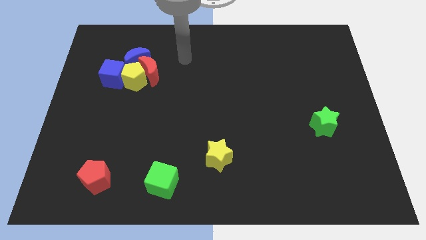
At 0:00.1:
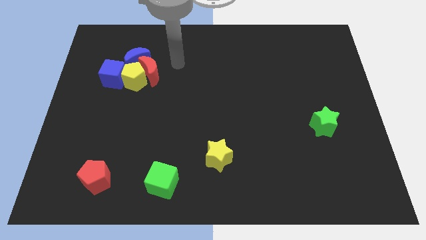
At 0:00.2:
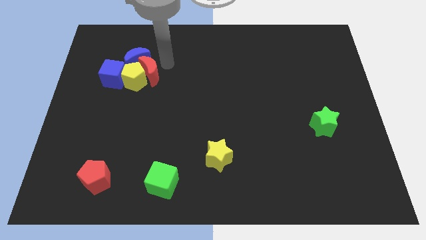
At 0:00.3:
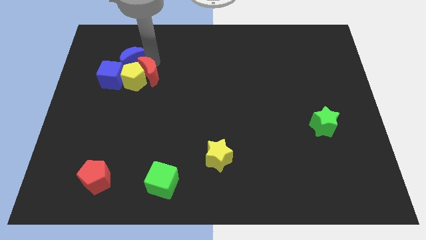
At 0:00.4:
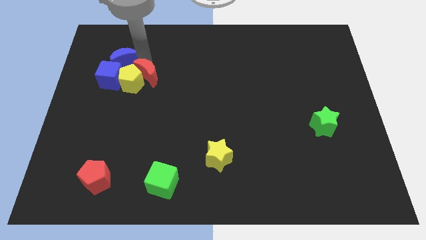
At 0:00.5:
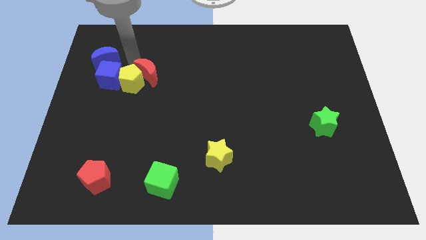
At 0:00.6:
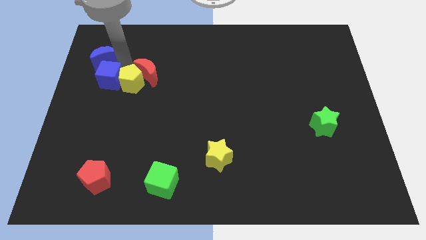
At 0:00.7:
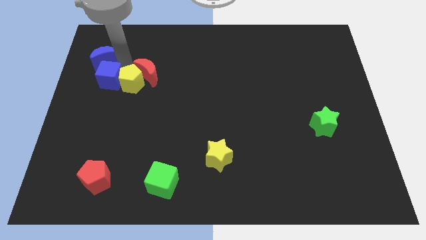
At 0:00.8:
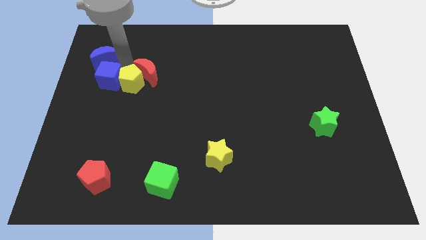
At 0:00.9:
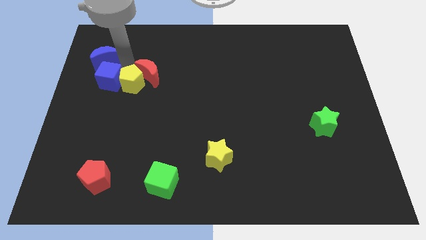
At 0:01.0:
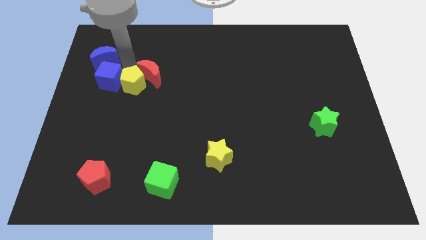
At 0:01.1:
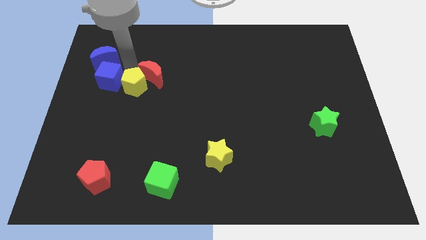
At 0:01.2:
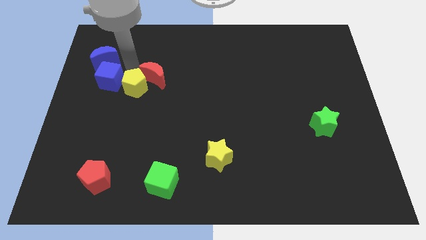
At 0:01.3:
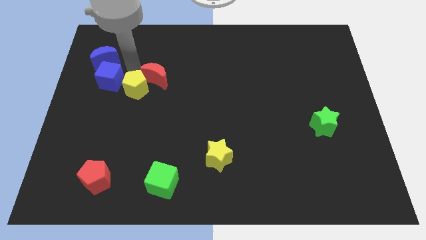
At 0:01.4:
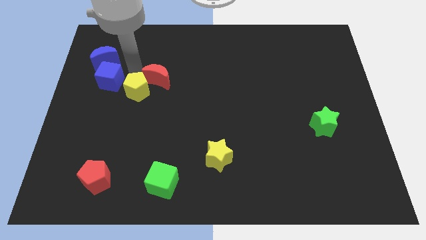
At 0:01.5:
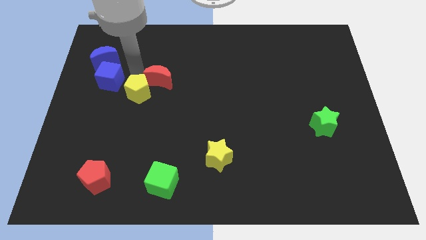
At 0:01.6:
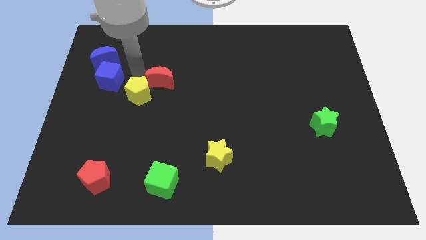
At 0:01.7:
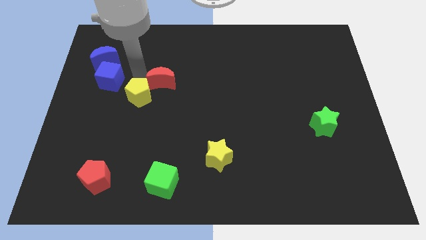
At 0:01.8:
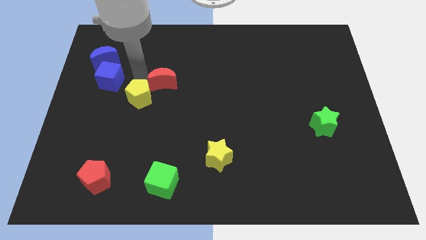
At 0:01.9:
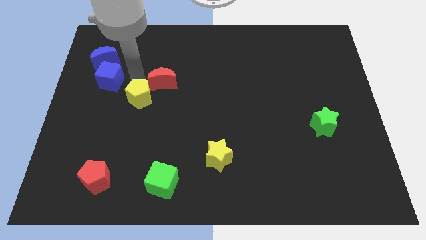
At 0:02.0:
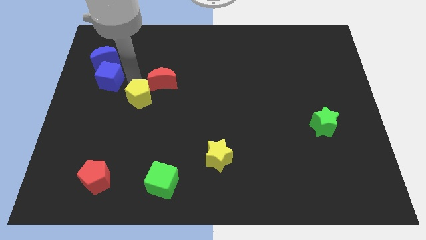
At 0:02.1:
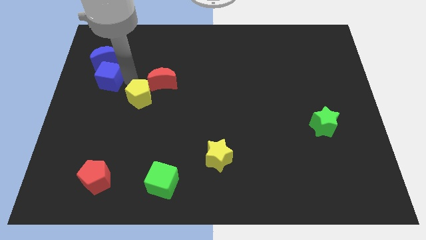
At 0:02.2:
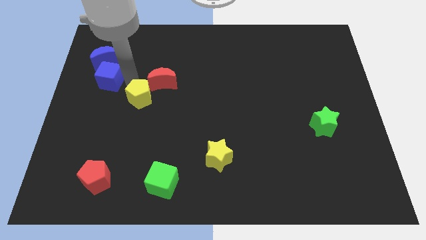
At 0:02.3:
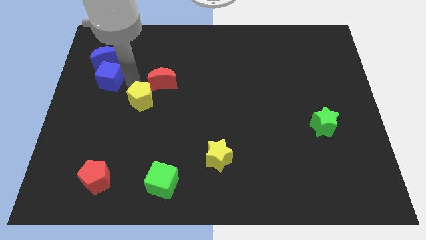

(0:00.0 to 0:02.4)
move the yellow pentagon away from the group of blocks

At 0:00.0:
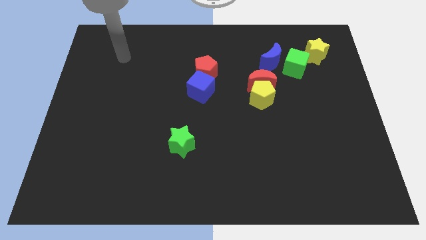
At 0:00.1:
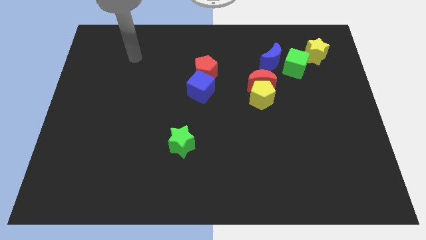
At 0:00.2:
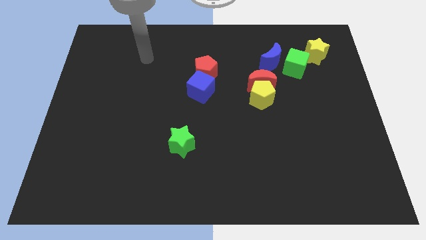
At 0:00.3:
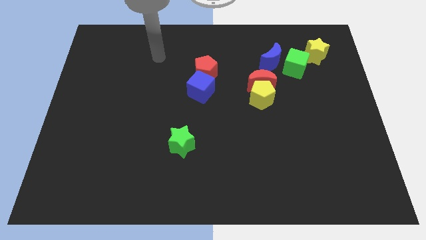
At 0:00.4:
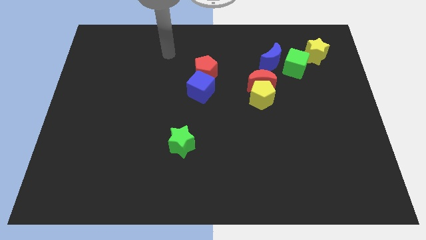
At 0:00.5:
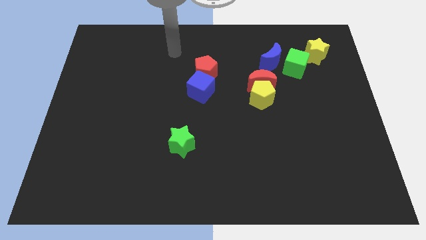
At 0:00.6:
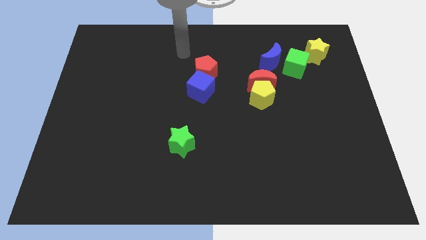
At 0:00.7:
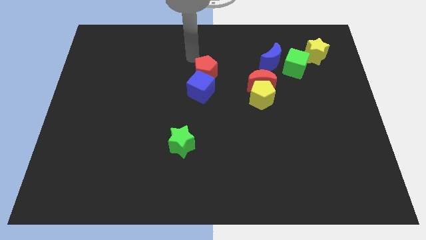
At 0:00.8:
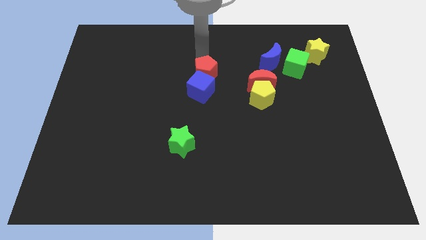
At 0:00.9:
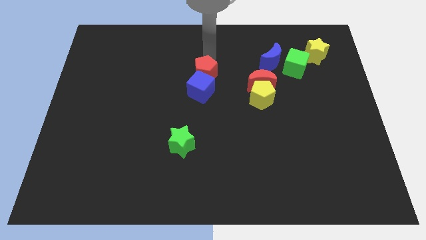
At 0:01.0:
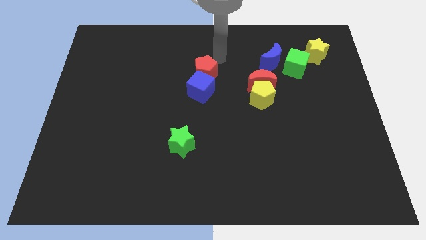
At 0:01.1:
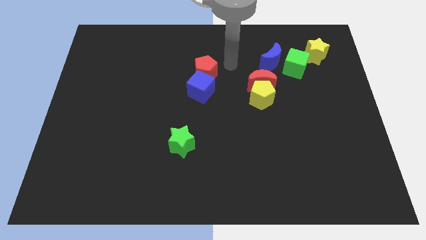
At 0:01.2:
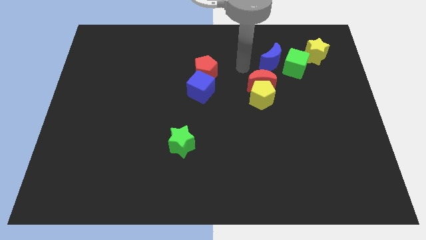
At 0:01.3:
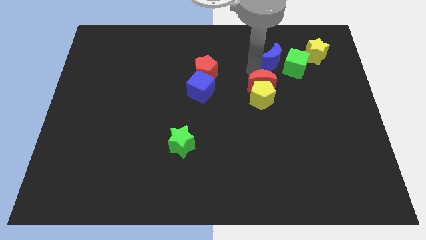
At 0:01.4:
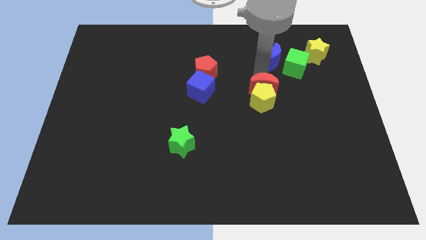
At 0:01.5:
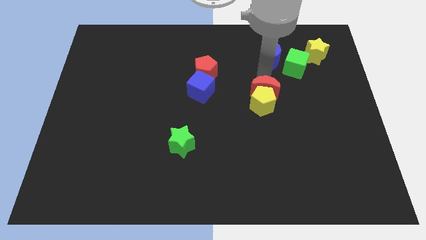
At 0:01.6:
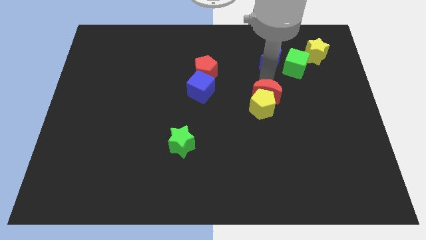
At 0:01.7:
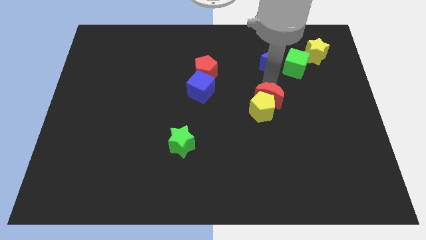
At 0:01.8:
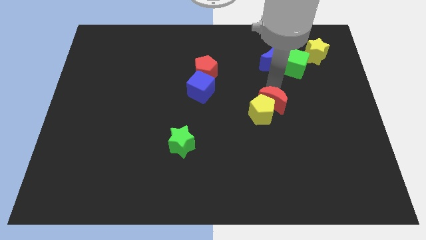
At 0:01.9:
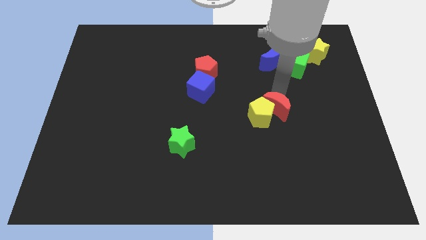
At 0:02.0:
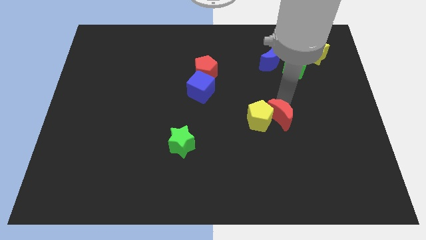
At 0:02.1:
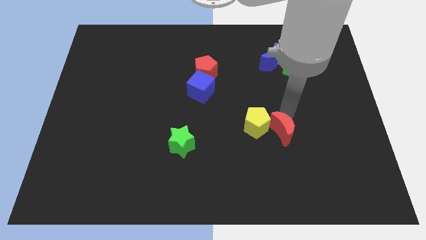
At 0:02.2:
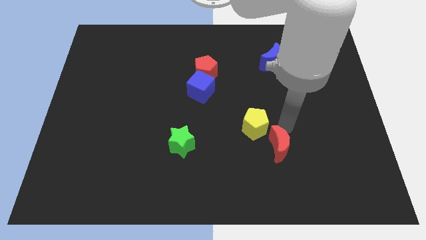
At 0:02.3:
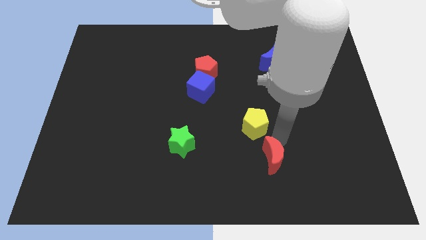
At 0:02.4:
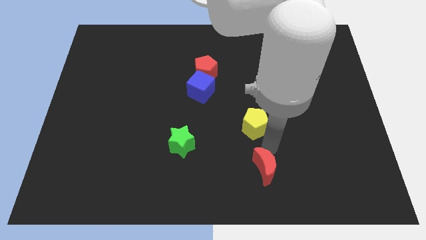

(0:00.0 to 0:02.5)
separate the yellow pentagon from the red moon

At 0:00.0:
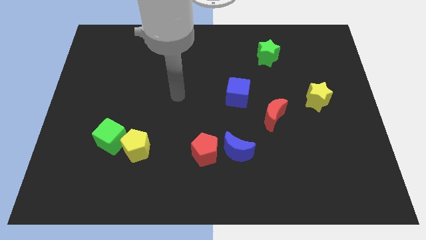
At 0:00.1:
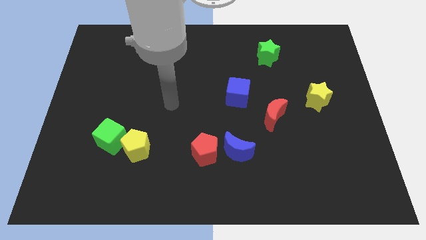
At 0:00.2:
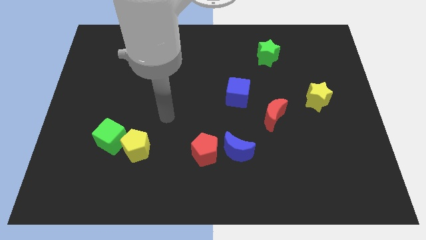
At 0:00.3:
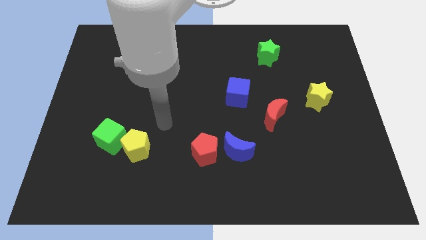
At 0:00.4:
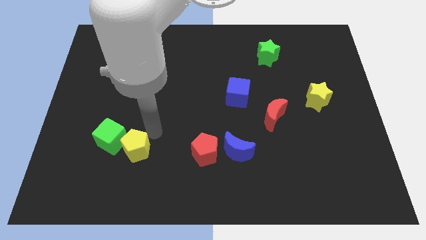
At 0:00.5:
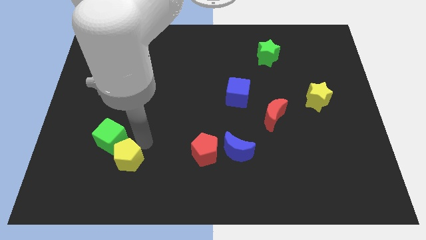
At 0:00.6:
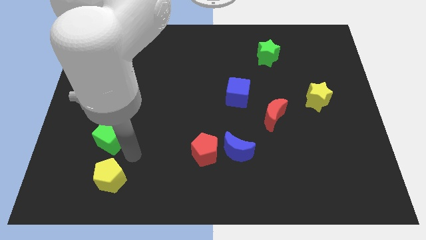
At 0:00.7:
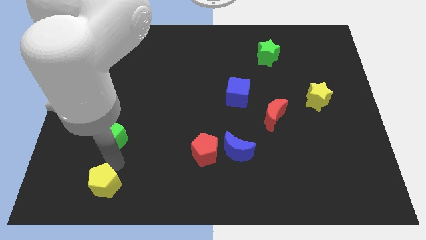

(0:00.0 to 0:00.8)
pull the green cube apart from the yellow pentagon

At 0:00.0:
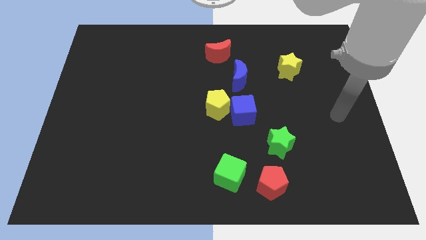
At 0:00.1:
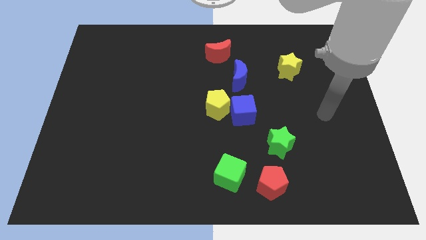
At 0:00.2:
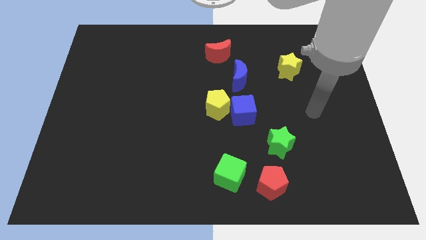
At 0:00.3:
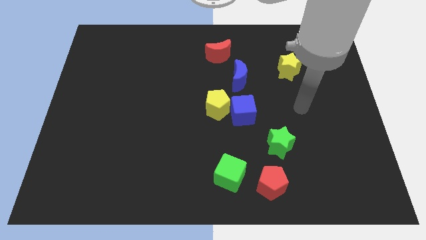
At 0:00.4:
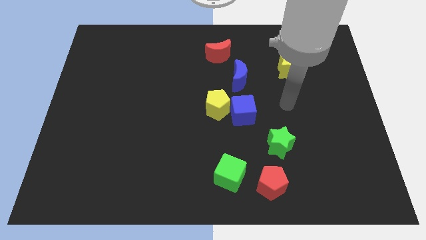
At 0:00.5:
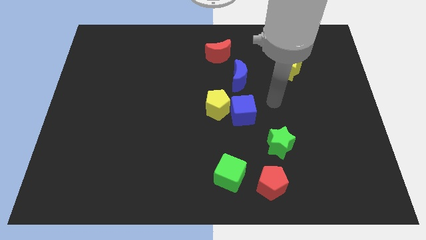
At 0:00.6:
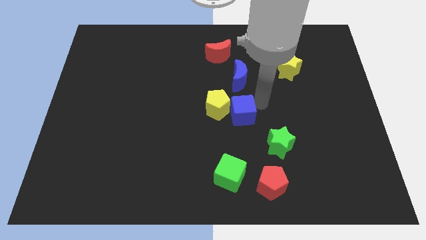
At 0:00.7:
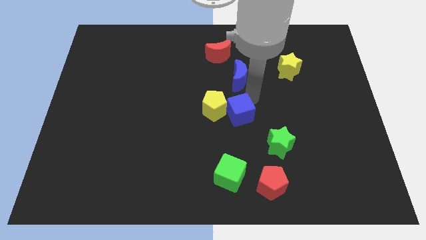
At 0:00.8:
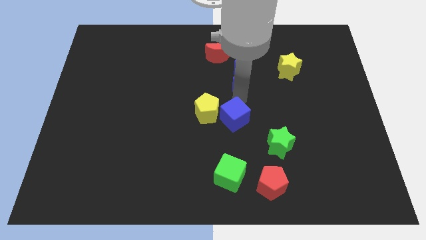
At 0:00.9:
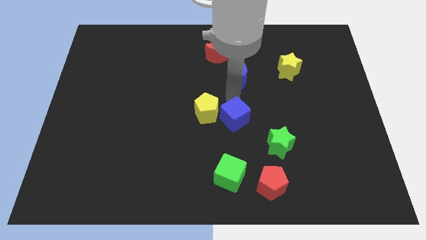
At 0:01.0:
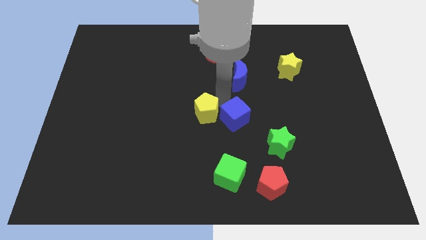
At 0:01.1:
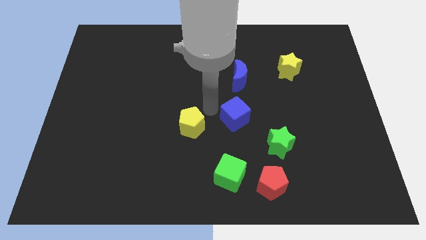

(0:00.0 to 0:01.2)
separate the blue cube from the yellow pentagon

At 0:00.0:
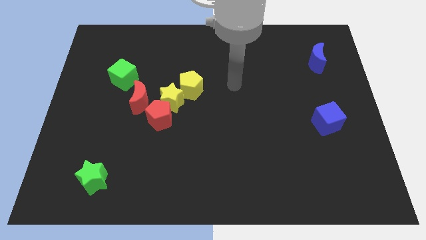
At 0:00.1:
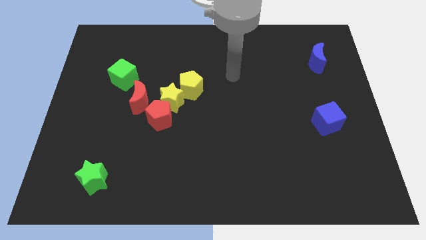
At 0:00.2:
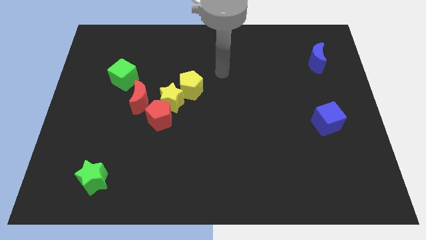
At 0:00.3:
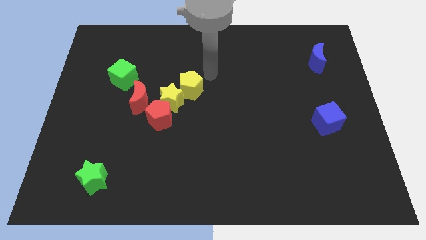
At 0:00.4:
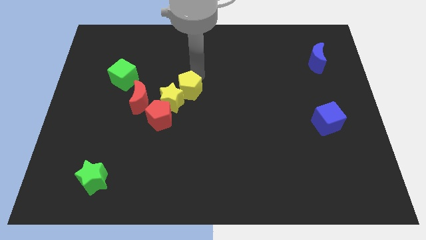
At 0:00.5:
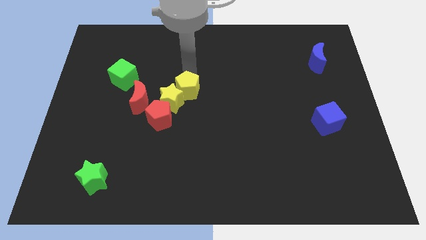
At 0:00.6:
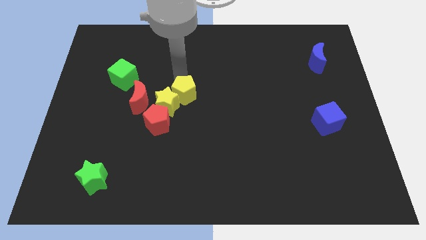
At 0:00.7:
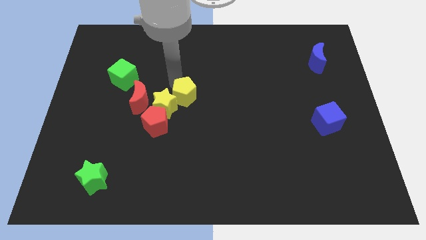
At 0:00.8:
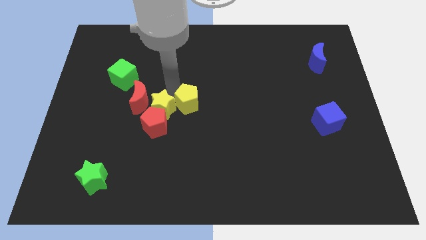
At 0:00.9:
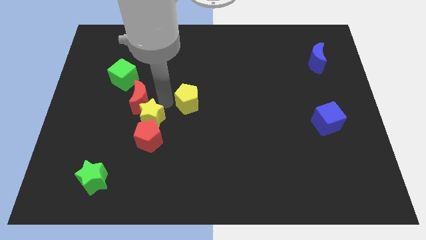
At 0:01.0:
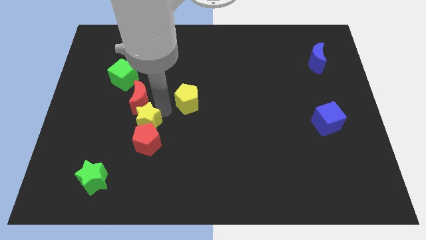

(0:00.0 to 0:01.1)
move the yellow pentagon away from the yellow star

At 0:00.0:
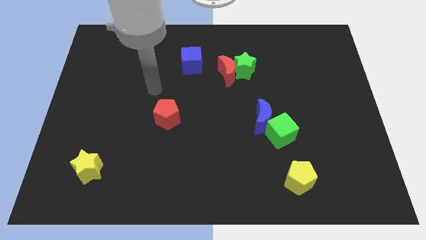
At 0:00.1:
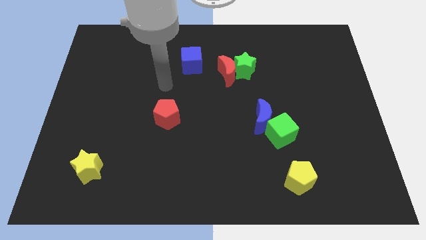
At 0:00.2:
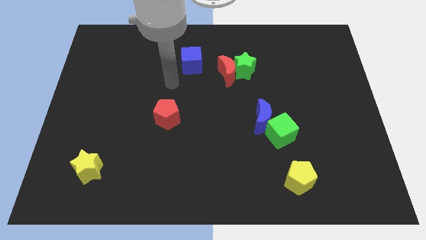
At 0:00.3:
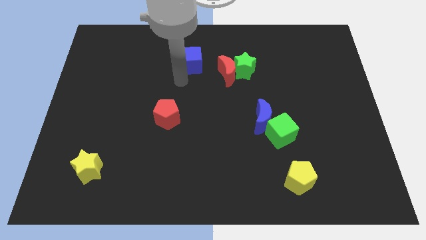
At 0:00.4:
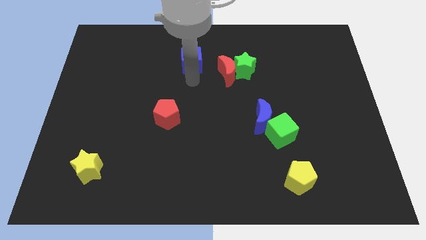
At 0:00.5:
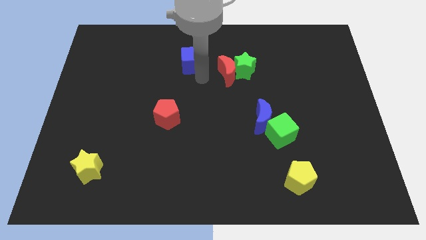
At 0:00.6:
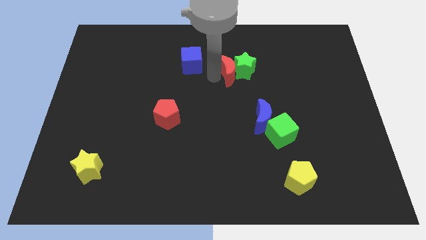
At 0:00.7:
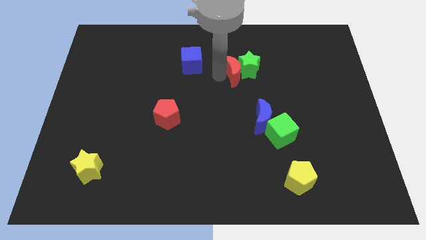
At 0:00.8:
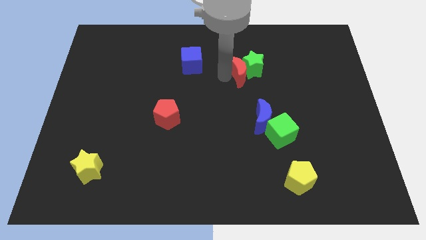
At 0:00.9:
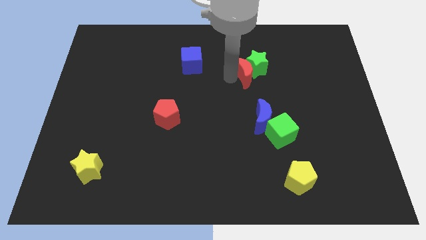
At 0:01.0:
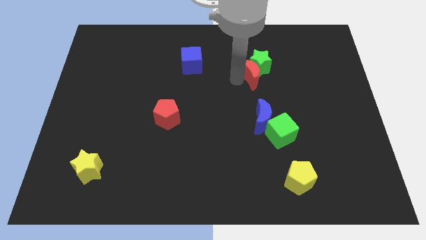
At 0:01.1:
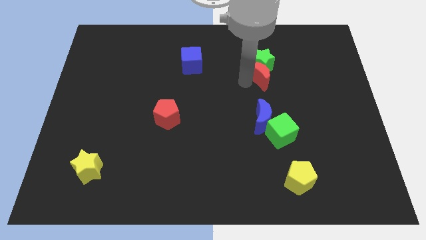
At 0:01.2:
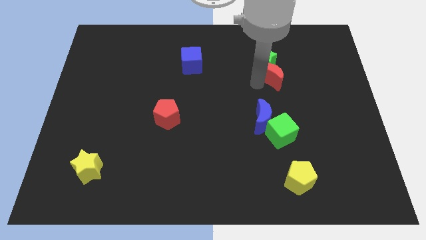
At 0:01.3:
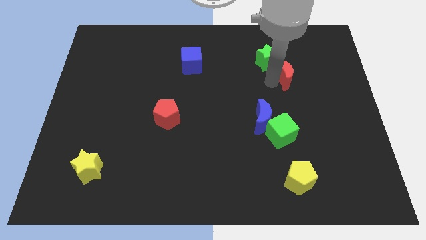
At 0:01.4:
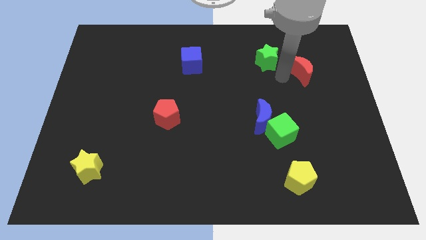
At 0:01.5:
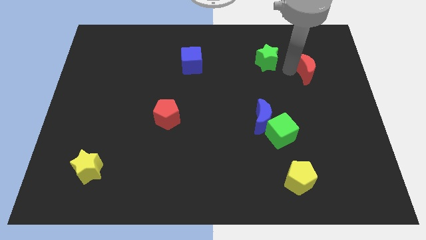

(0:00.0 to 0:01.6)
separate the green star from the red moon
